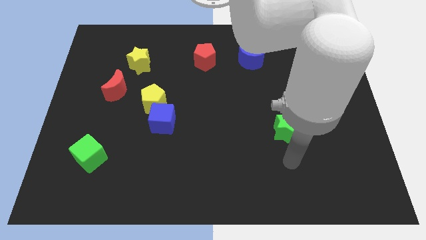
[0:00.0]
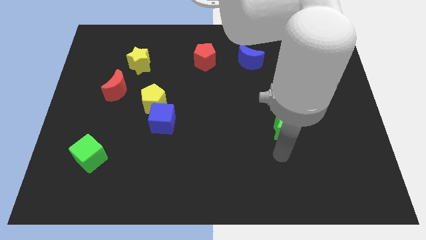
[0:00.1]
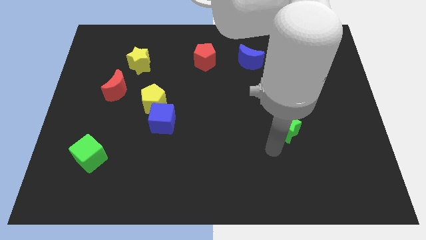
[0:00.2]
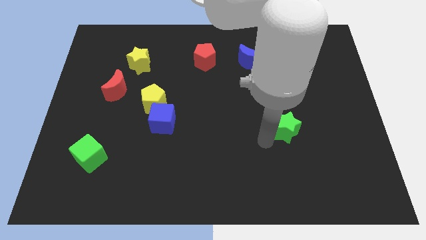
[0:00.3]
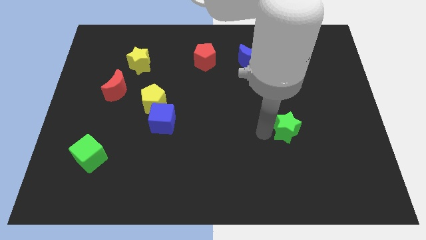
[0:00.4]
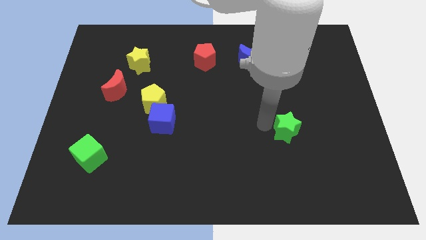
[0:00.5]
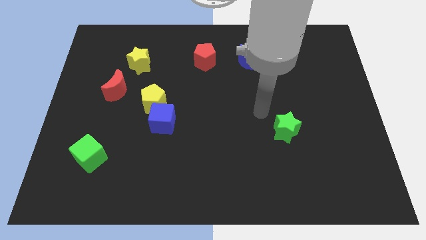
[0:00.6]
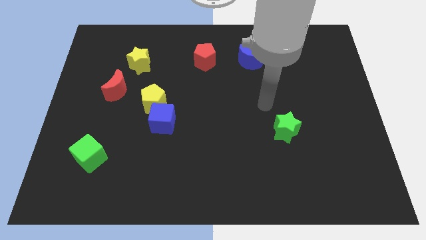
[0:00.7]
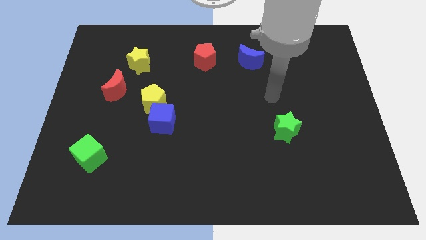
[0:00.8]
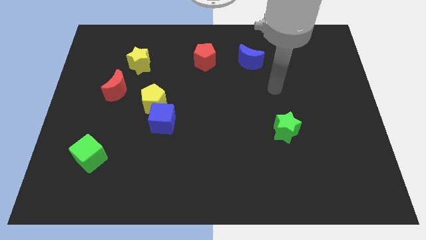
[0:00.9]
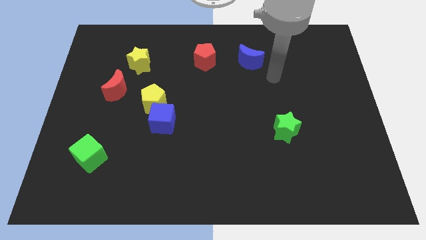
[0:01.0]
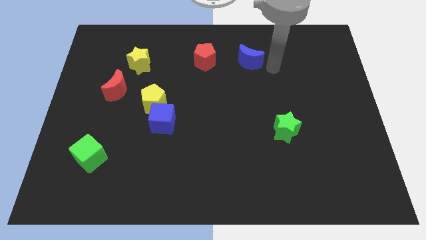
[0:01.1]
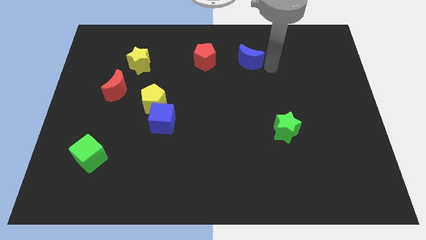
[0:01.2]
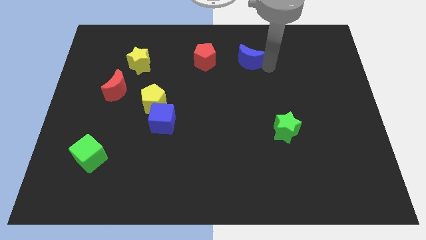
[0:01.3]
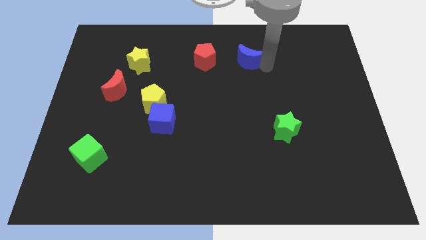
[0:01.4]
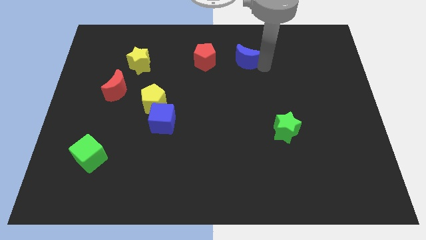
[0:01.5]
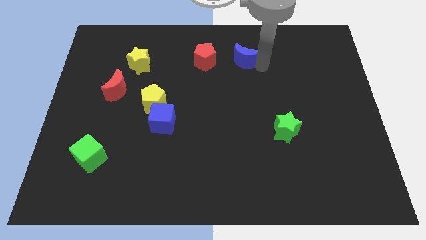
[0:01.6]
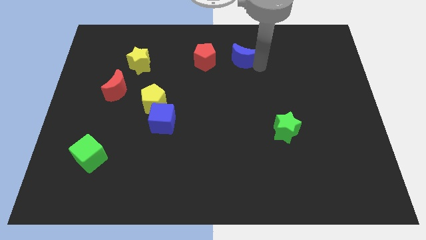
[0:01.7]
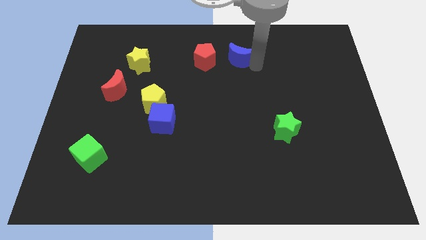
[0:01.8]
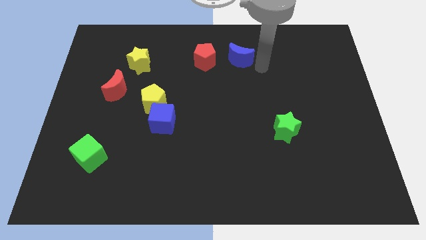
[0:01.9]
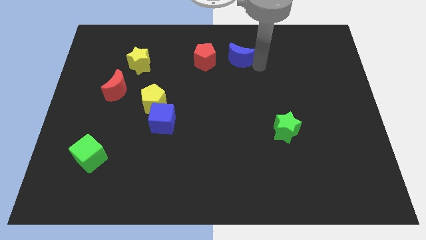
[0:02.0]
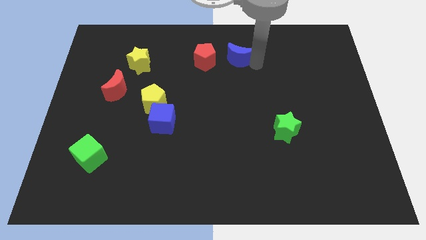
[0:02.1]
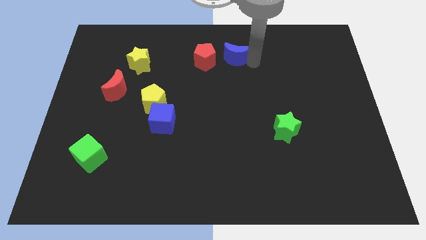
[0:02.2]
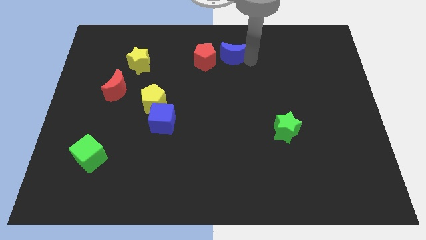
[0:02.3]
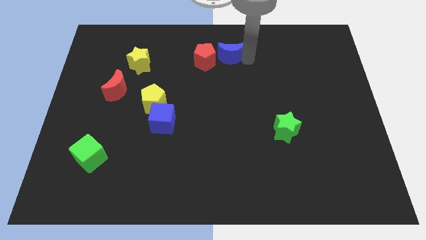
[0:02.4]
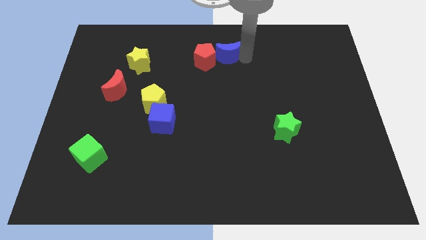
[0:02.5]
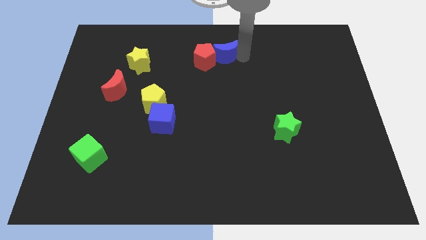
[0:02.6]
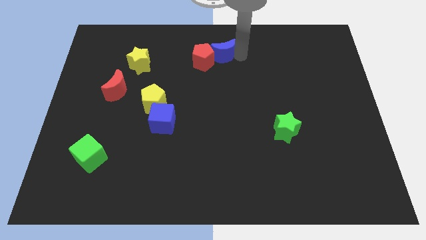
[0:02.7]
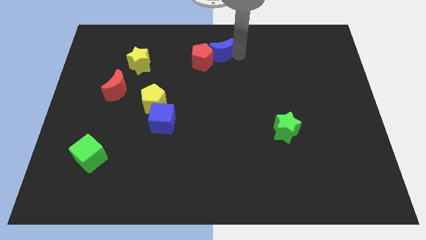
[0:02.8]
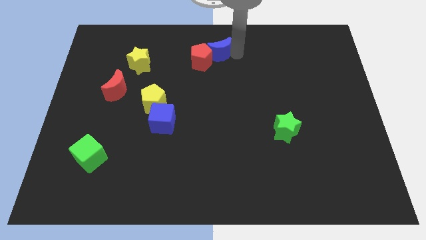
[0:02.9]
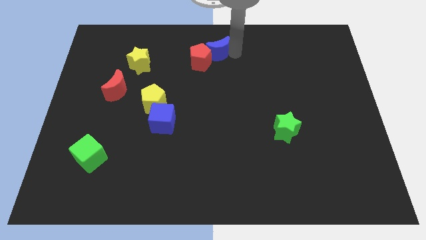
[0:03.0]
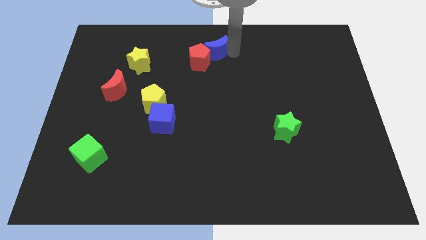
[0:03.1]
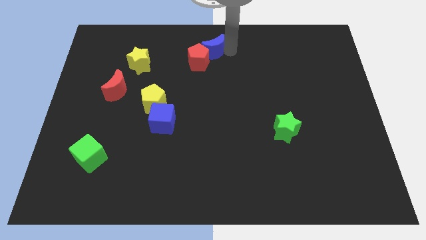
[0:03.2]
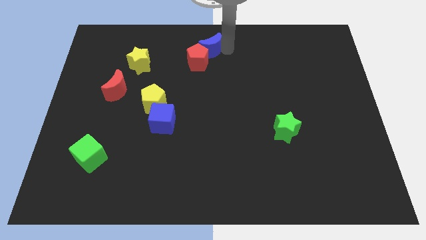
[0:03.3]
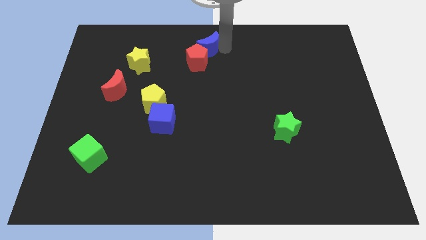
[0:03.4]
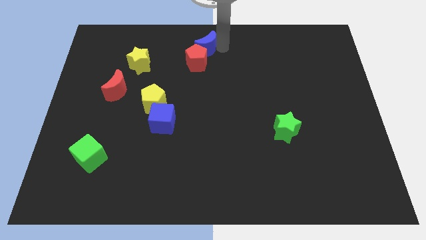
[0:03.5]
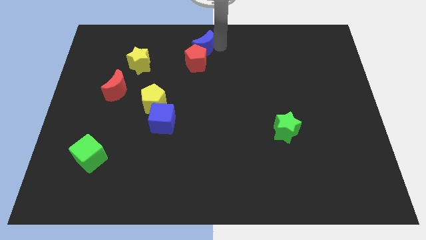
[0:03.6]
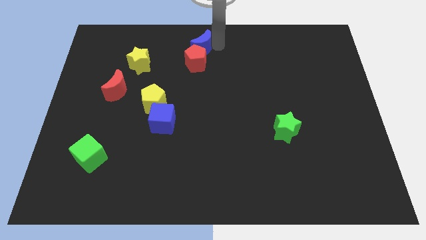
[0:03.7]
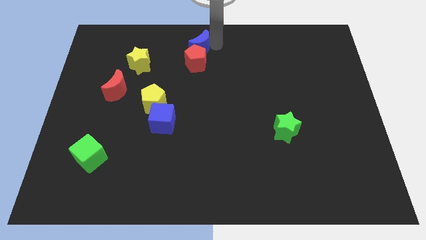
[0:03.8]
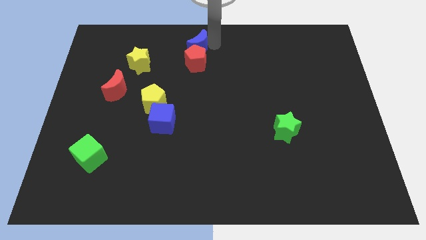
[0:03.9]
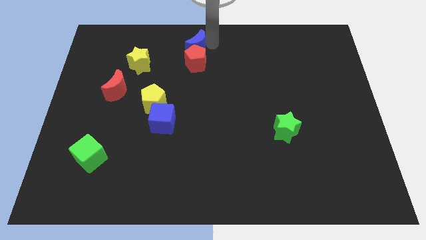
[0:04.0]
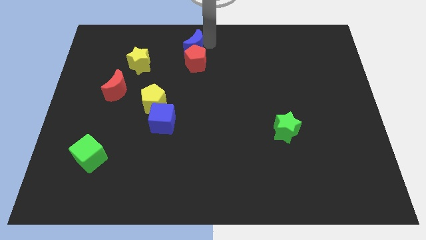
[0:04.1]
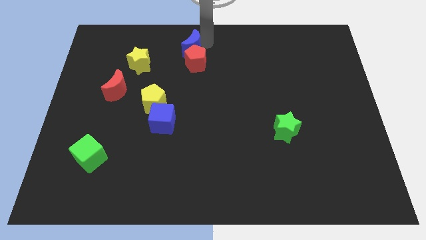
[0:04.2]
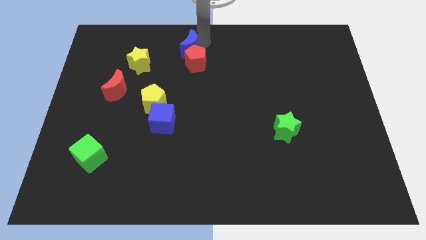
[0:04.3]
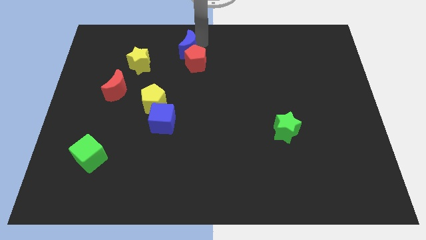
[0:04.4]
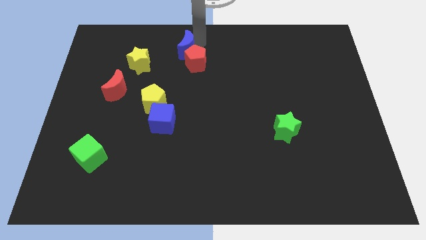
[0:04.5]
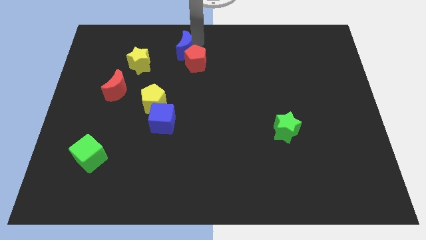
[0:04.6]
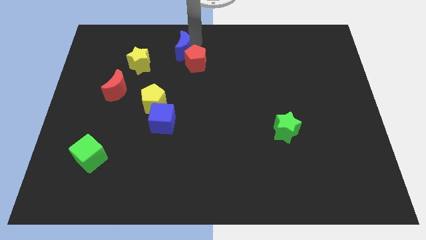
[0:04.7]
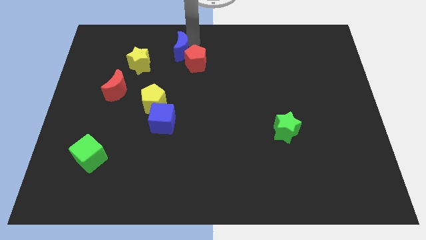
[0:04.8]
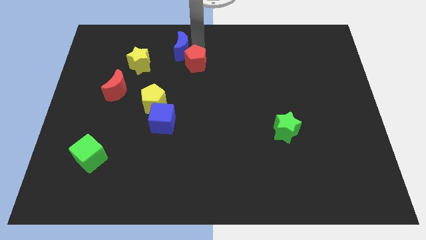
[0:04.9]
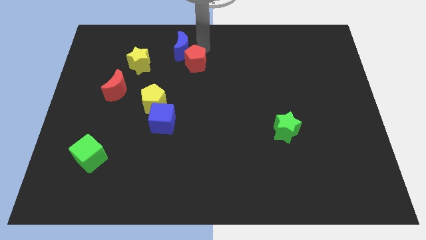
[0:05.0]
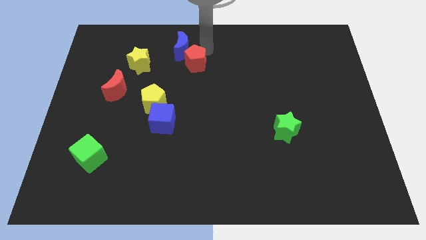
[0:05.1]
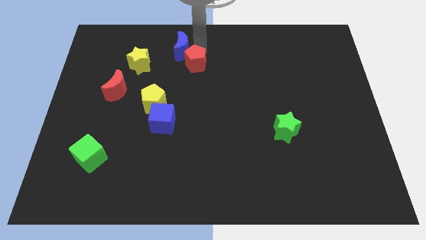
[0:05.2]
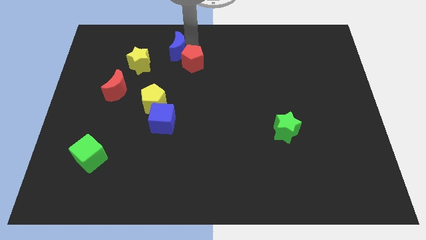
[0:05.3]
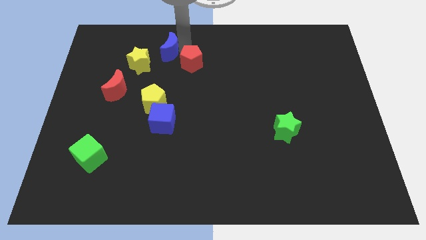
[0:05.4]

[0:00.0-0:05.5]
push the blue moon left

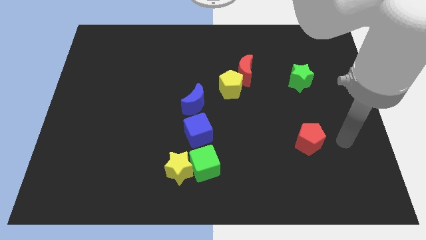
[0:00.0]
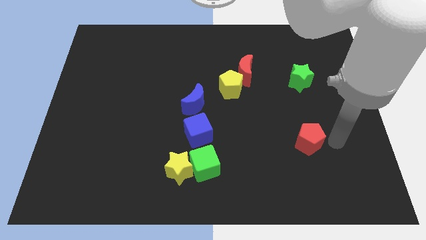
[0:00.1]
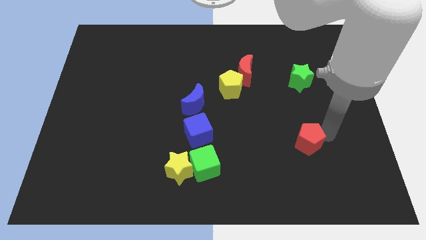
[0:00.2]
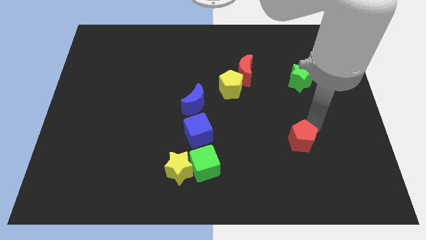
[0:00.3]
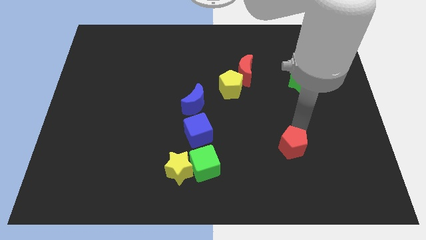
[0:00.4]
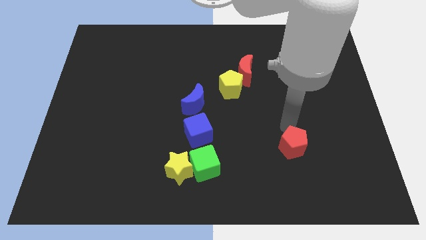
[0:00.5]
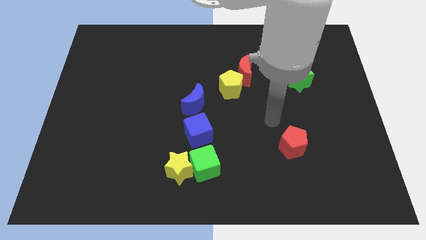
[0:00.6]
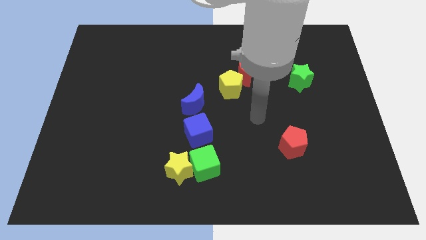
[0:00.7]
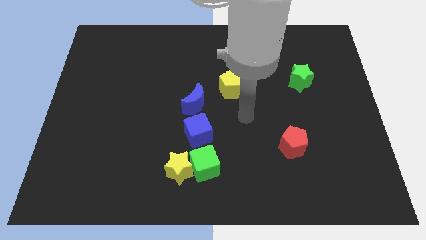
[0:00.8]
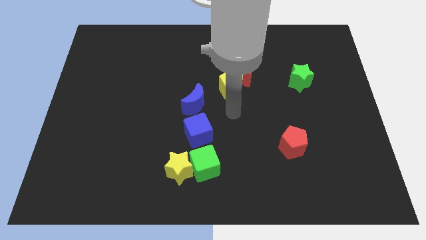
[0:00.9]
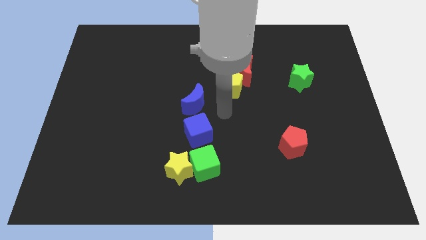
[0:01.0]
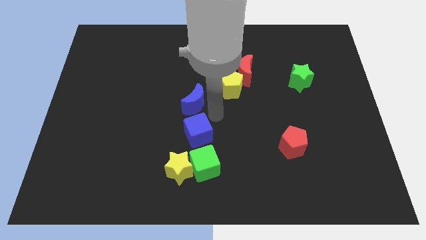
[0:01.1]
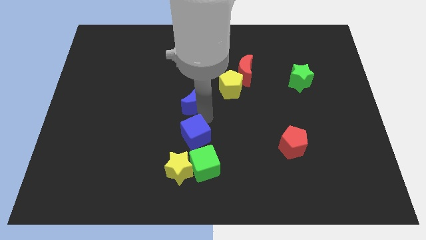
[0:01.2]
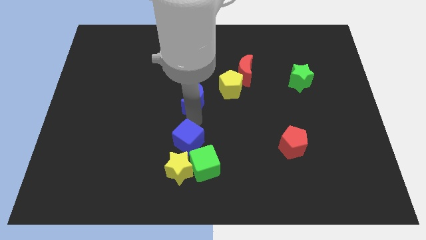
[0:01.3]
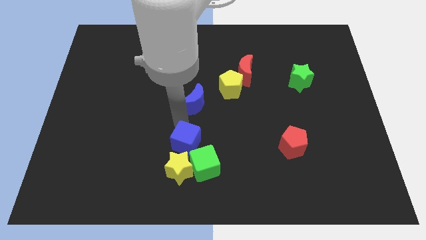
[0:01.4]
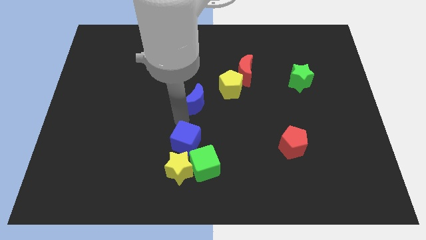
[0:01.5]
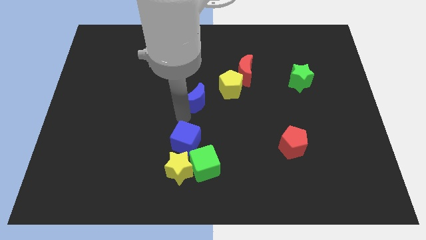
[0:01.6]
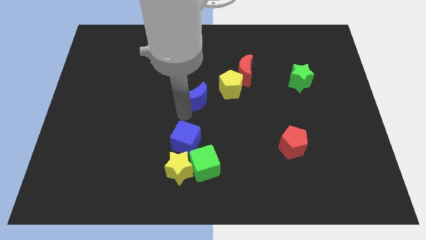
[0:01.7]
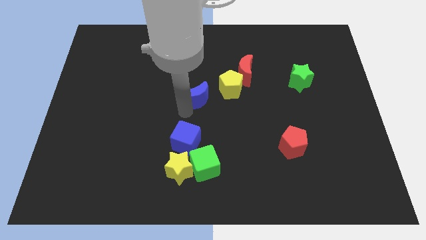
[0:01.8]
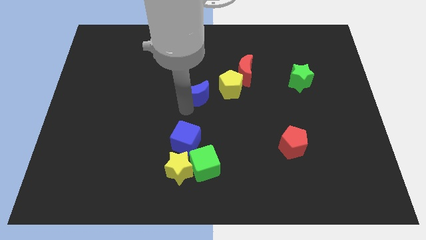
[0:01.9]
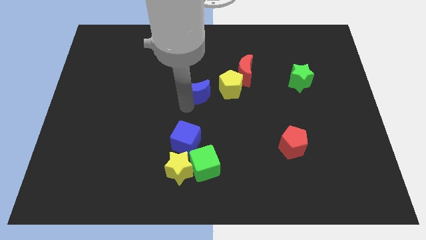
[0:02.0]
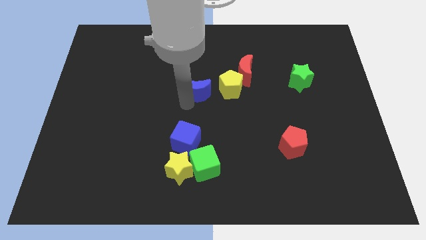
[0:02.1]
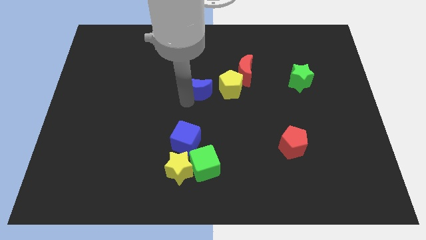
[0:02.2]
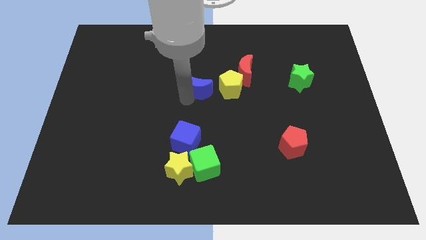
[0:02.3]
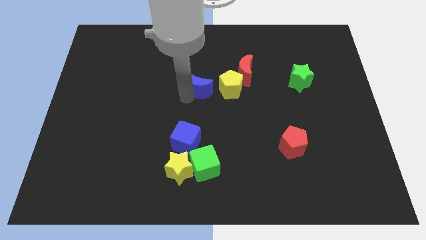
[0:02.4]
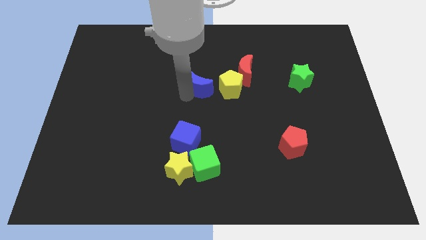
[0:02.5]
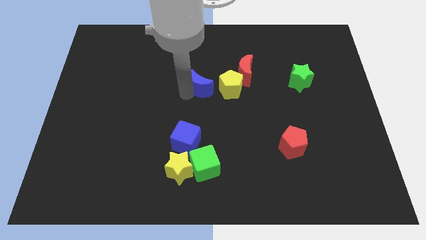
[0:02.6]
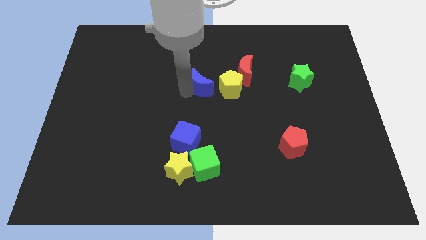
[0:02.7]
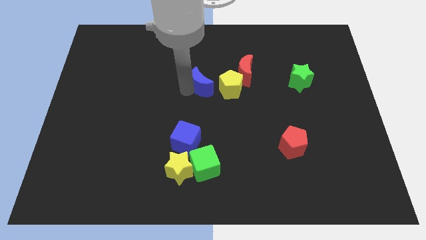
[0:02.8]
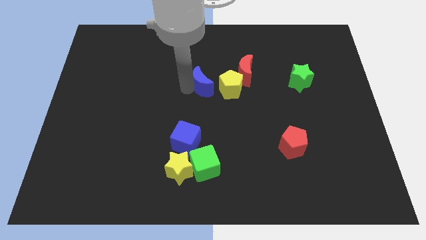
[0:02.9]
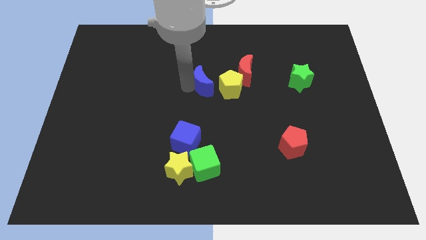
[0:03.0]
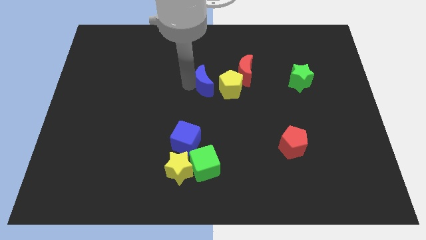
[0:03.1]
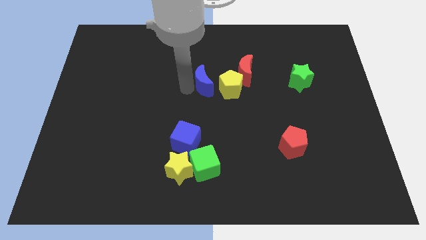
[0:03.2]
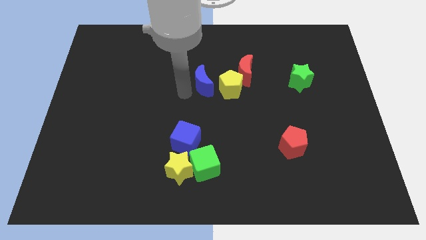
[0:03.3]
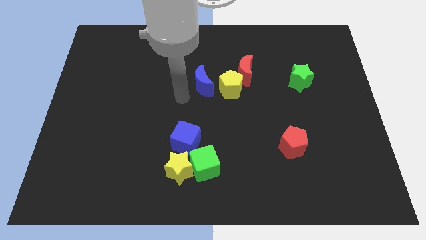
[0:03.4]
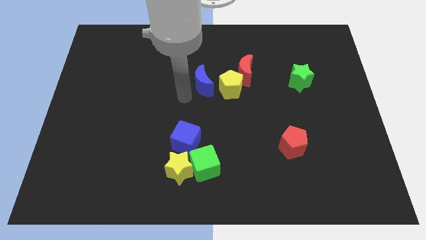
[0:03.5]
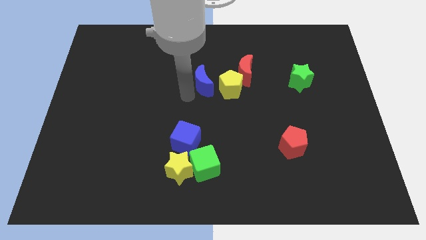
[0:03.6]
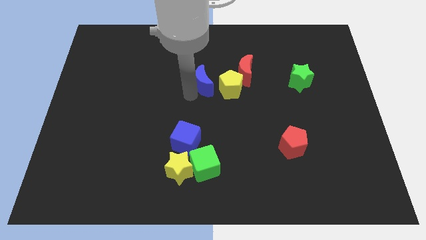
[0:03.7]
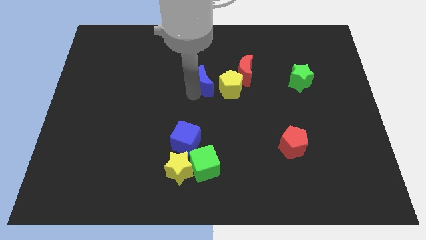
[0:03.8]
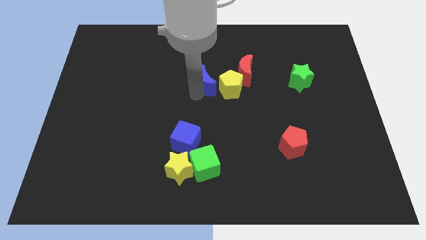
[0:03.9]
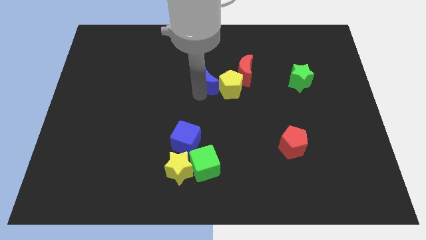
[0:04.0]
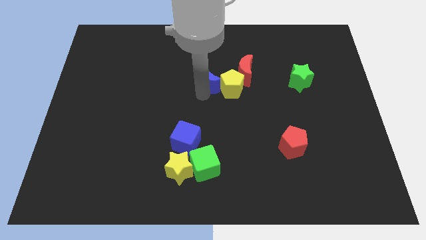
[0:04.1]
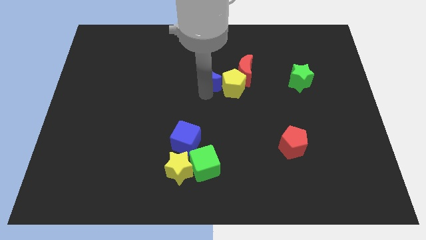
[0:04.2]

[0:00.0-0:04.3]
slide the blue moon diagonally up and to the right a little
